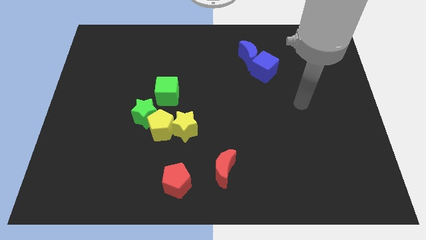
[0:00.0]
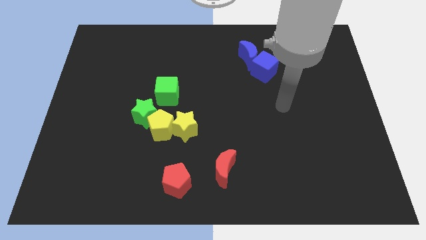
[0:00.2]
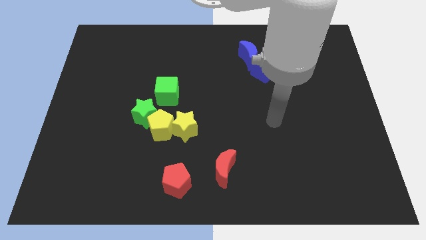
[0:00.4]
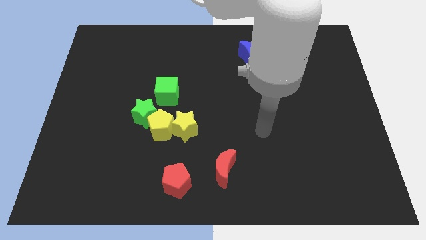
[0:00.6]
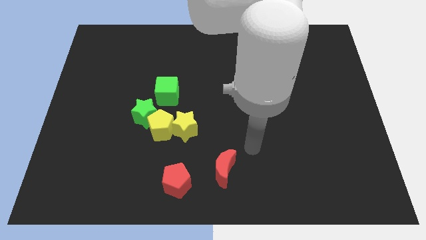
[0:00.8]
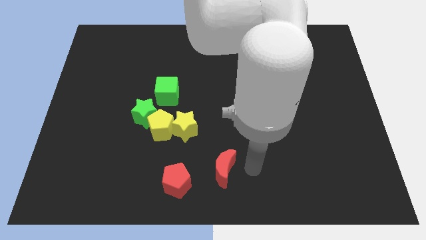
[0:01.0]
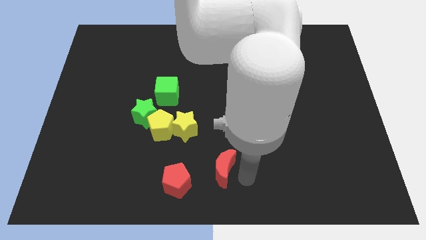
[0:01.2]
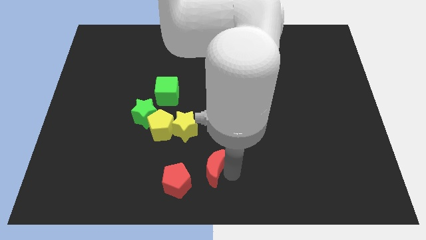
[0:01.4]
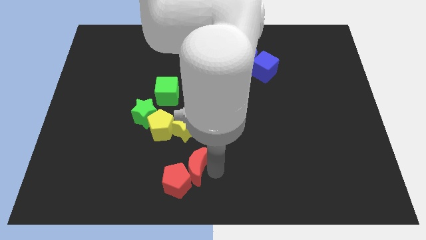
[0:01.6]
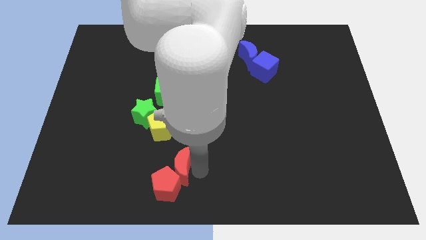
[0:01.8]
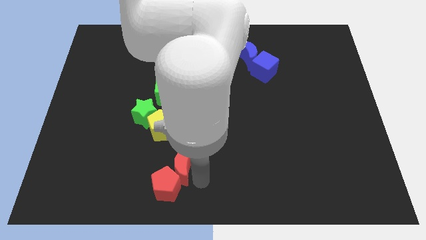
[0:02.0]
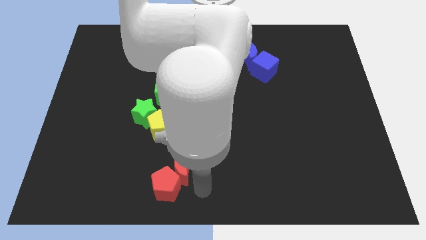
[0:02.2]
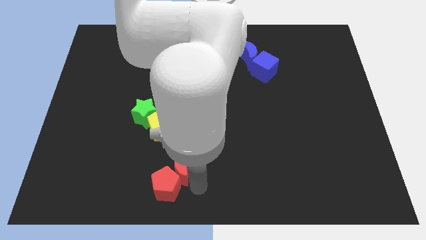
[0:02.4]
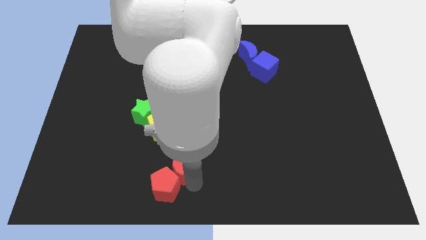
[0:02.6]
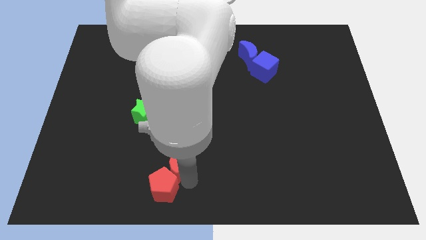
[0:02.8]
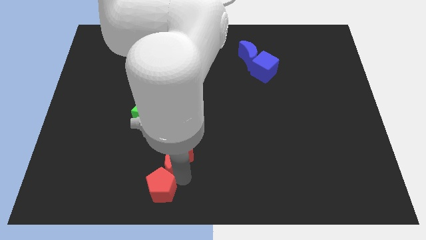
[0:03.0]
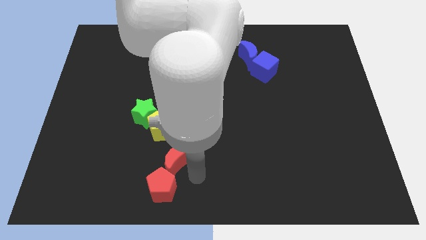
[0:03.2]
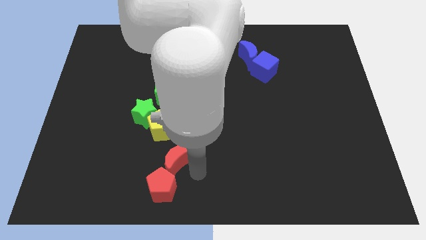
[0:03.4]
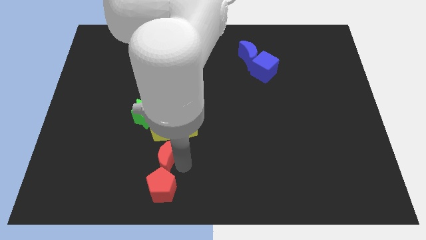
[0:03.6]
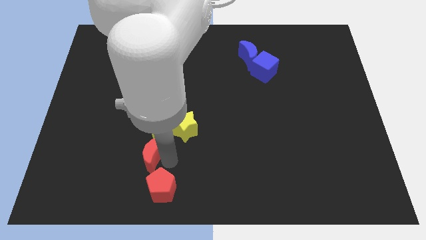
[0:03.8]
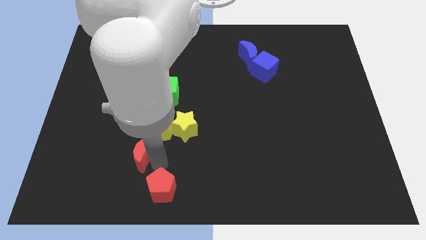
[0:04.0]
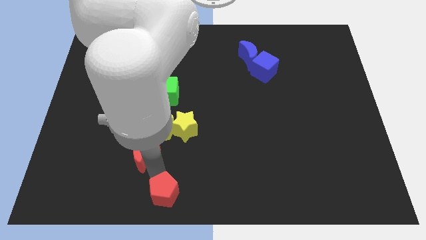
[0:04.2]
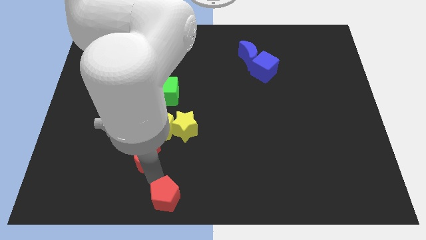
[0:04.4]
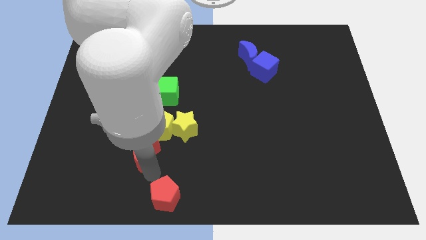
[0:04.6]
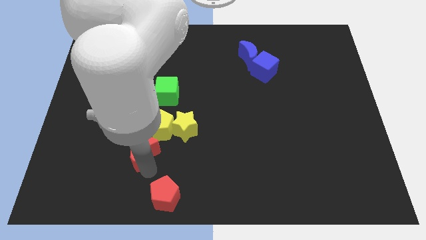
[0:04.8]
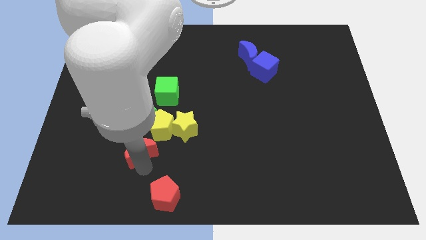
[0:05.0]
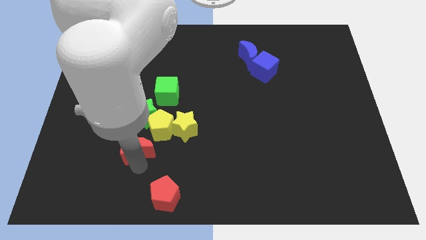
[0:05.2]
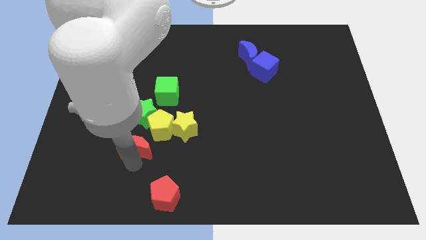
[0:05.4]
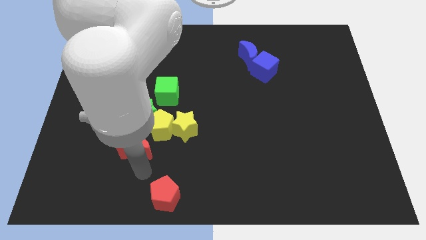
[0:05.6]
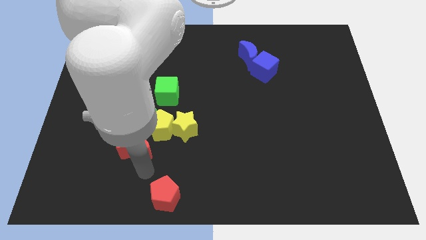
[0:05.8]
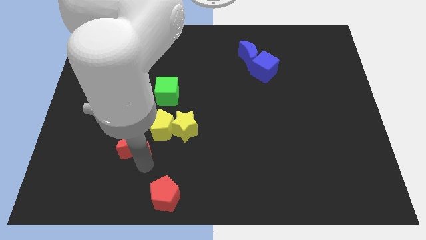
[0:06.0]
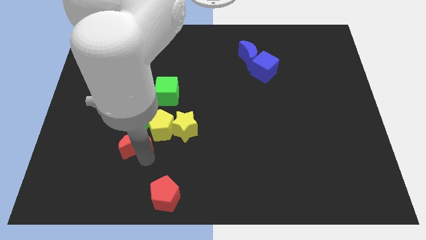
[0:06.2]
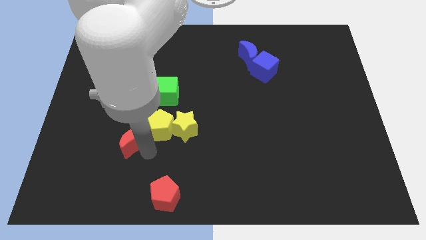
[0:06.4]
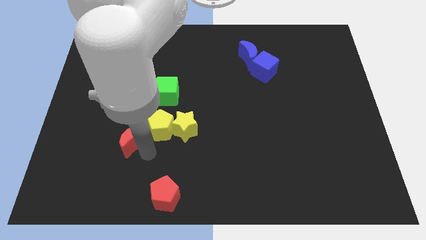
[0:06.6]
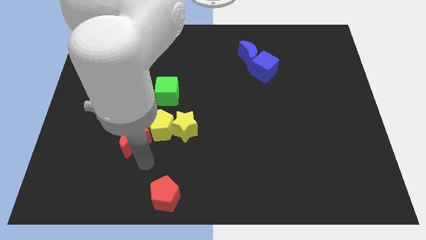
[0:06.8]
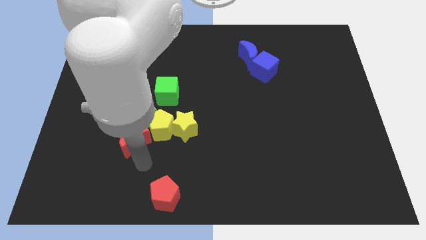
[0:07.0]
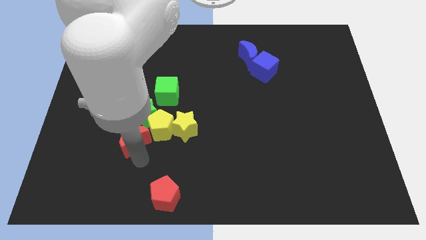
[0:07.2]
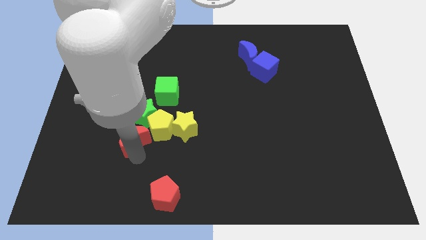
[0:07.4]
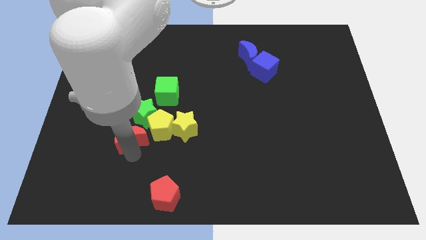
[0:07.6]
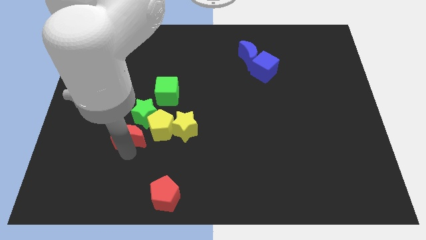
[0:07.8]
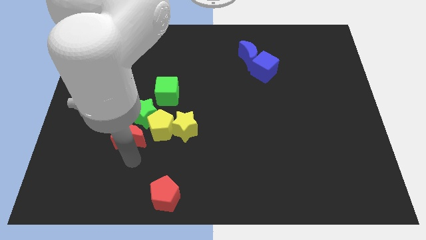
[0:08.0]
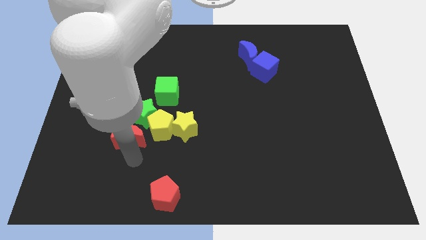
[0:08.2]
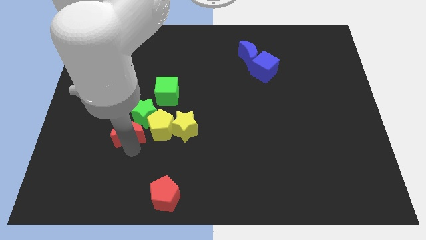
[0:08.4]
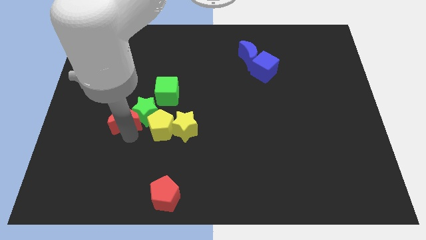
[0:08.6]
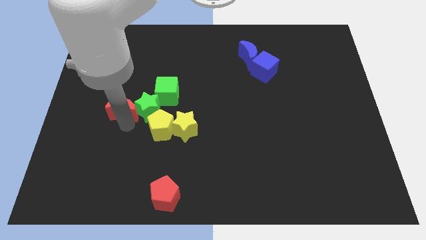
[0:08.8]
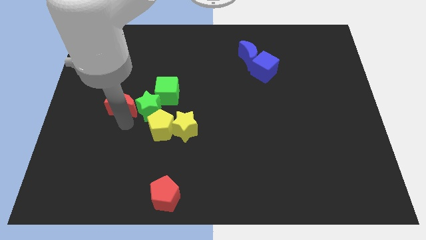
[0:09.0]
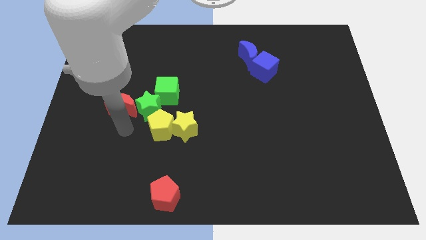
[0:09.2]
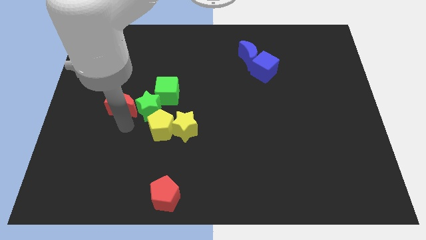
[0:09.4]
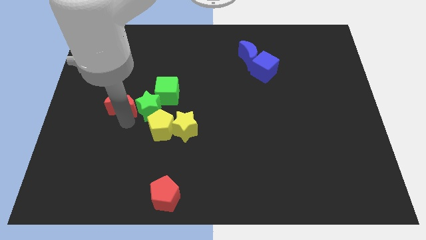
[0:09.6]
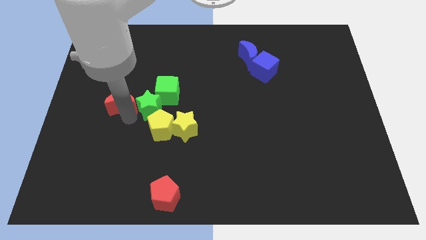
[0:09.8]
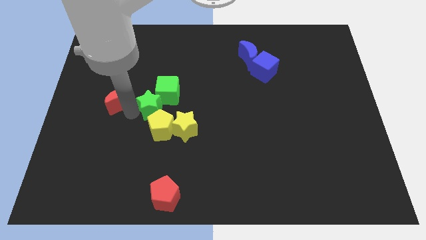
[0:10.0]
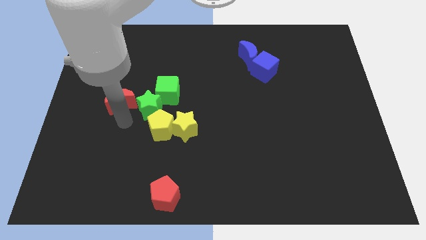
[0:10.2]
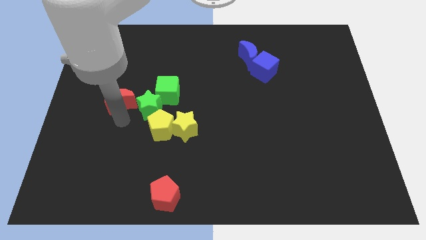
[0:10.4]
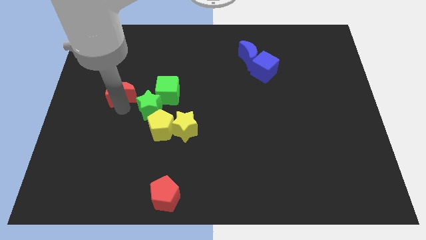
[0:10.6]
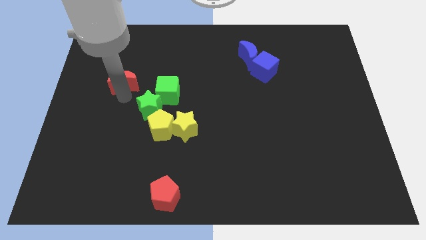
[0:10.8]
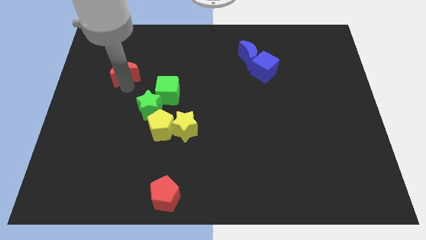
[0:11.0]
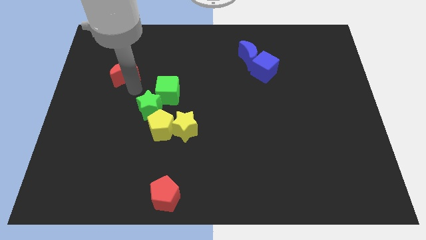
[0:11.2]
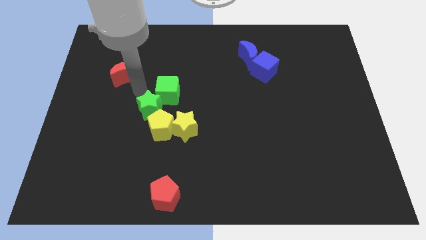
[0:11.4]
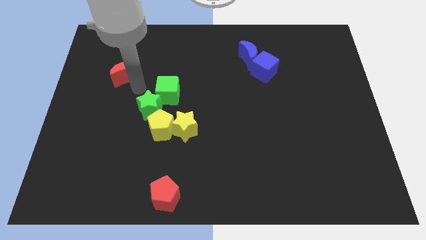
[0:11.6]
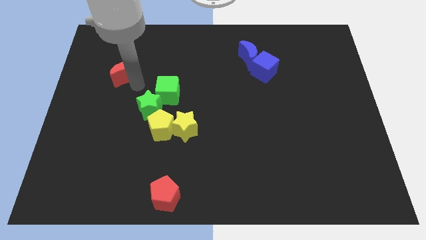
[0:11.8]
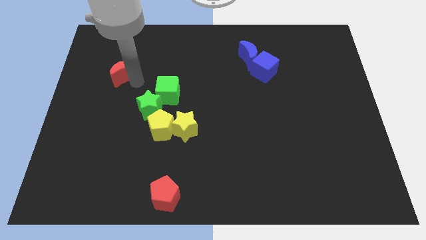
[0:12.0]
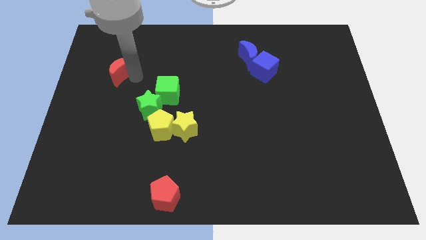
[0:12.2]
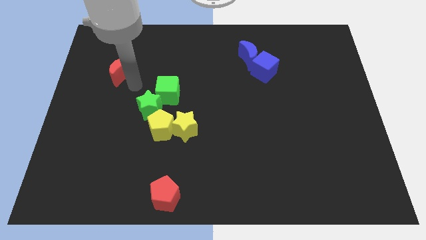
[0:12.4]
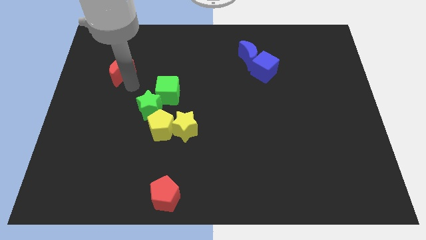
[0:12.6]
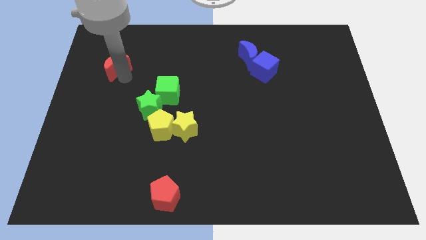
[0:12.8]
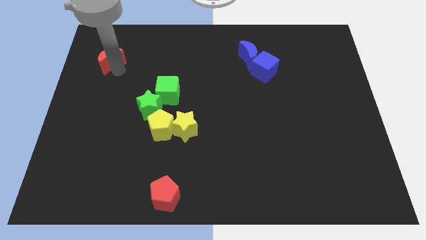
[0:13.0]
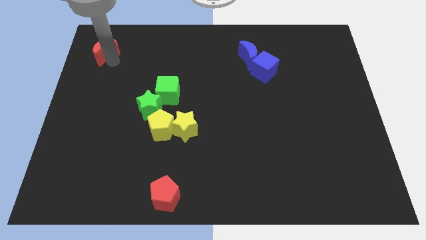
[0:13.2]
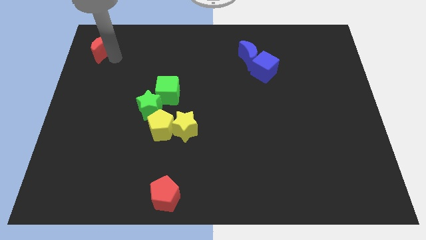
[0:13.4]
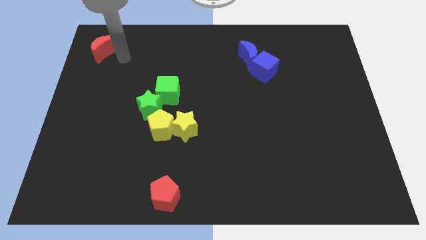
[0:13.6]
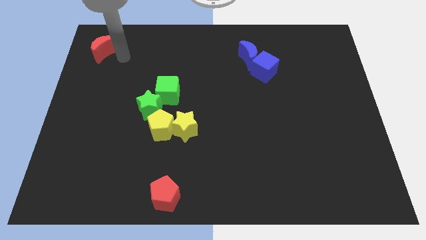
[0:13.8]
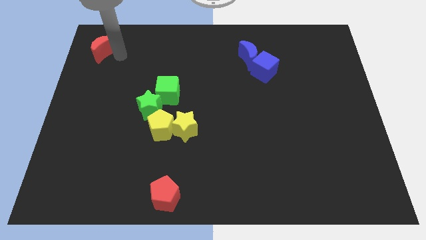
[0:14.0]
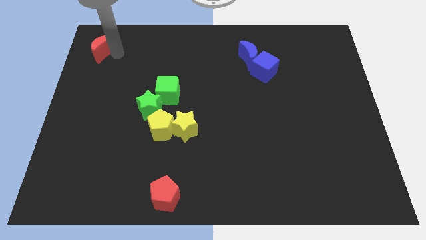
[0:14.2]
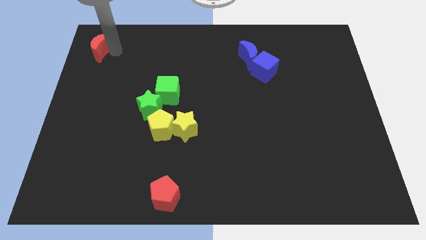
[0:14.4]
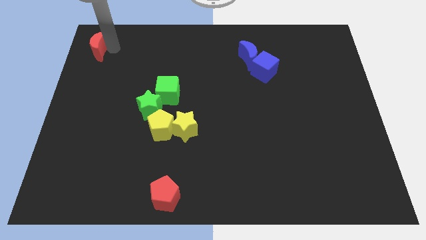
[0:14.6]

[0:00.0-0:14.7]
slide the red moon to the upper left corner
